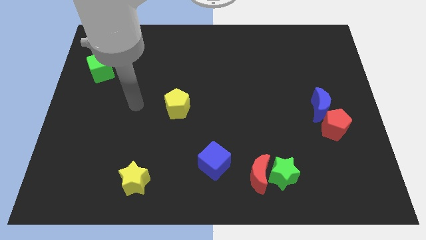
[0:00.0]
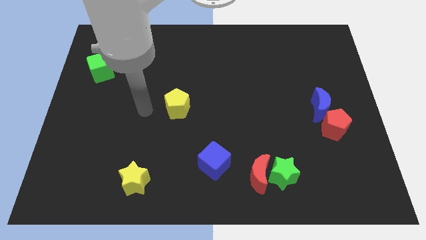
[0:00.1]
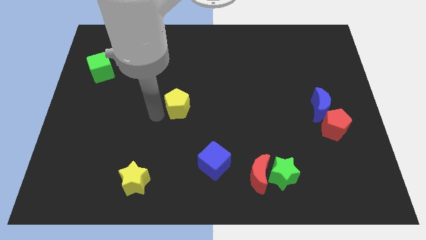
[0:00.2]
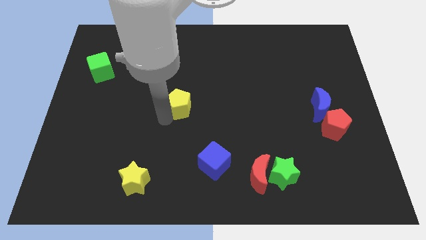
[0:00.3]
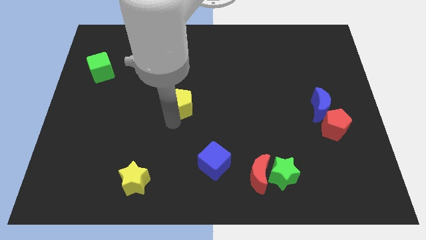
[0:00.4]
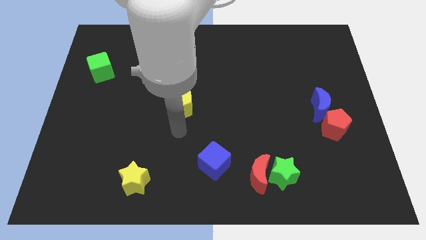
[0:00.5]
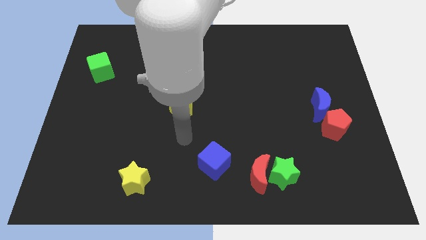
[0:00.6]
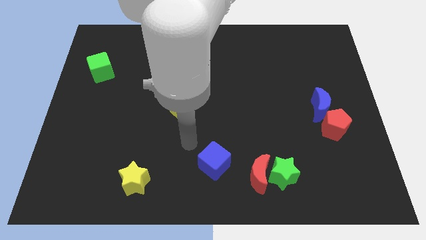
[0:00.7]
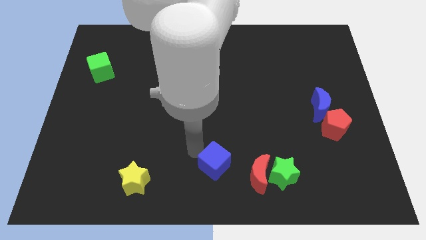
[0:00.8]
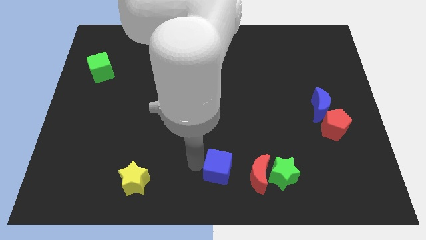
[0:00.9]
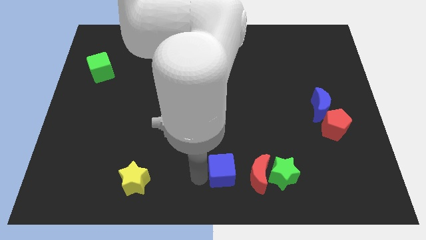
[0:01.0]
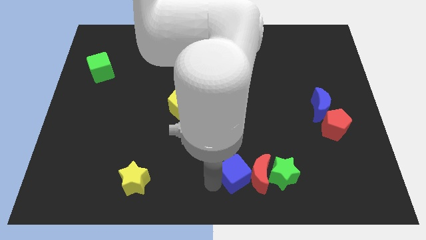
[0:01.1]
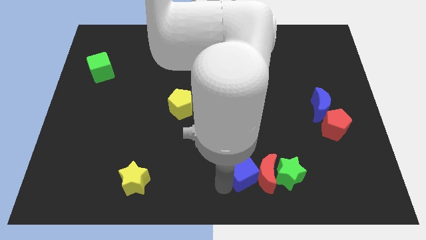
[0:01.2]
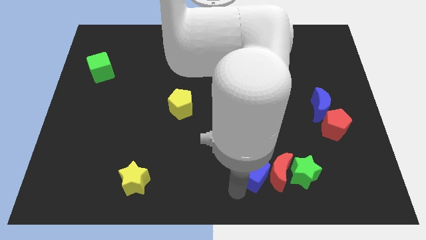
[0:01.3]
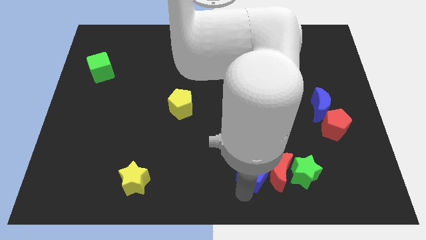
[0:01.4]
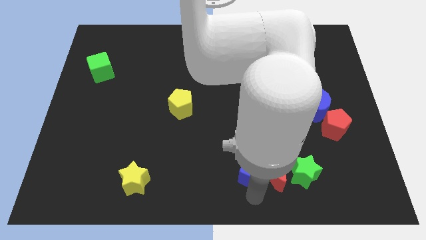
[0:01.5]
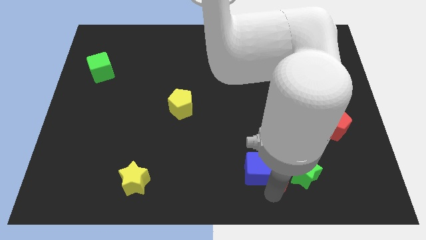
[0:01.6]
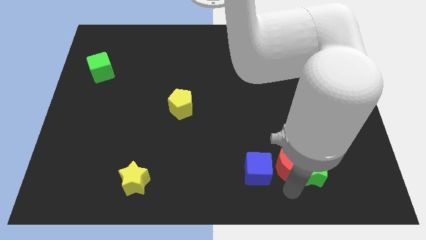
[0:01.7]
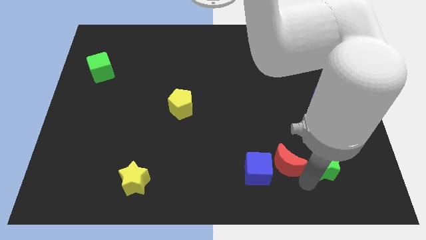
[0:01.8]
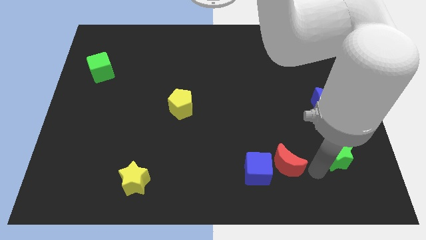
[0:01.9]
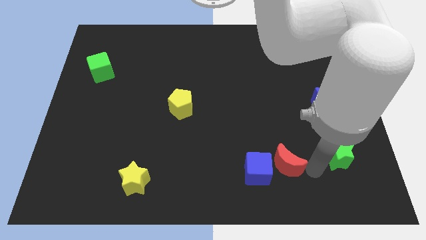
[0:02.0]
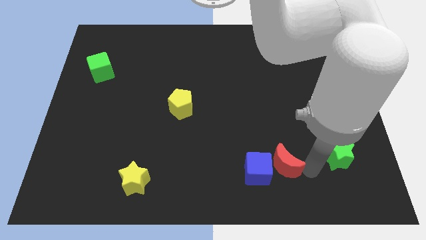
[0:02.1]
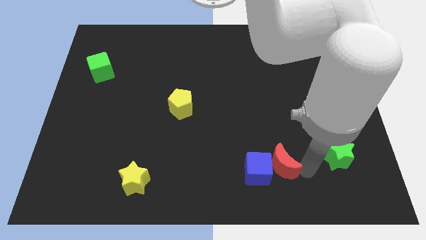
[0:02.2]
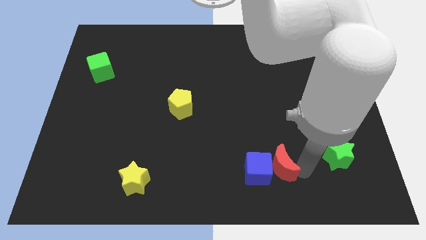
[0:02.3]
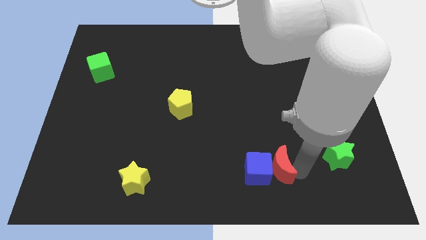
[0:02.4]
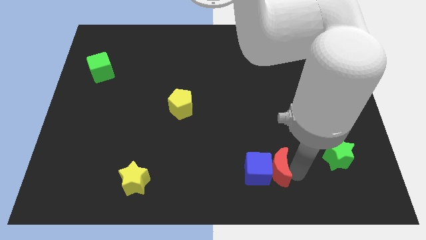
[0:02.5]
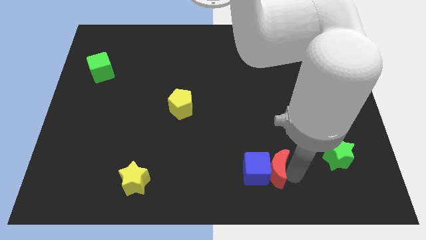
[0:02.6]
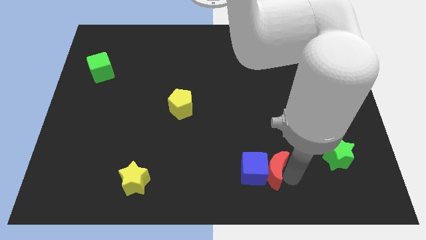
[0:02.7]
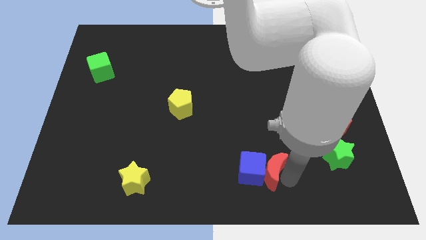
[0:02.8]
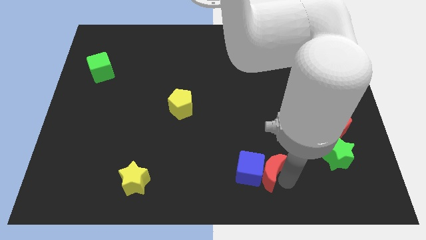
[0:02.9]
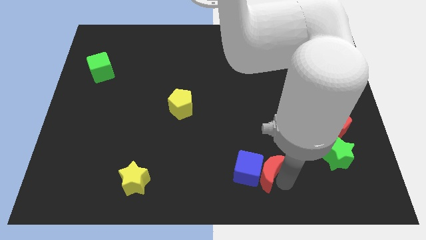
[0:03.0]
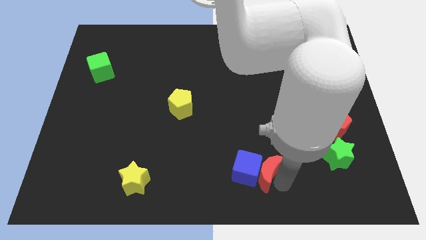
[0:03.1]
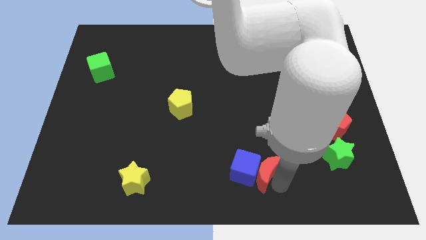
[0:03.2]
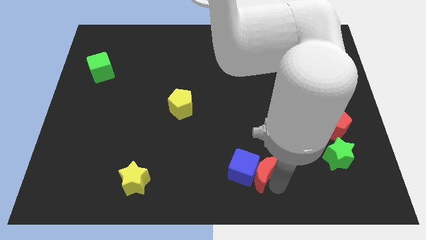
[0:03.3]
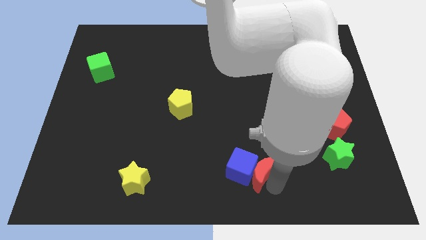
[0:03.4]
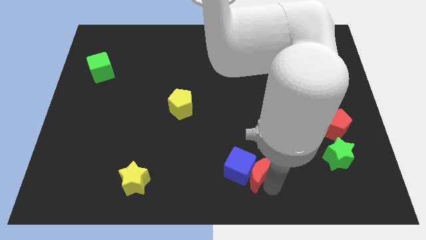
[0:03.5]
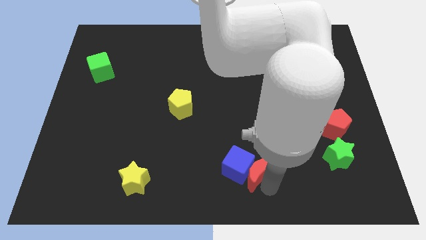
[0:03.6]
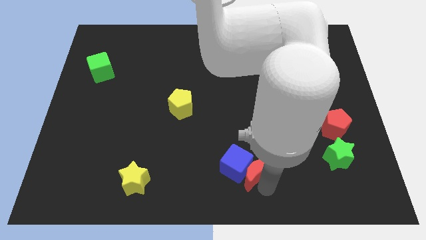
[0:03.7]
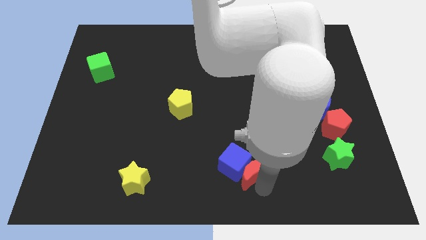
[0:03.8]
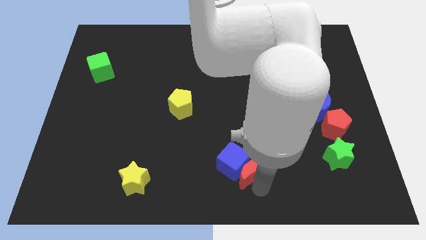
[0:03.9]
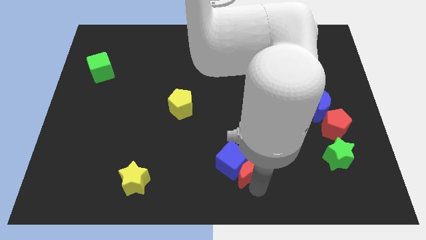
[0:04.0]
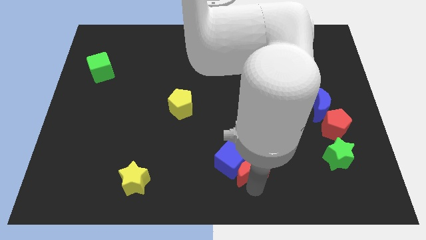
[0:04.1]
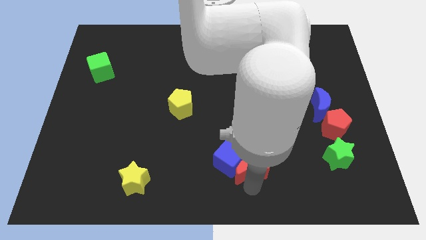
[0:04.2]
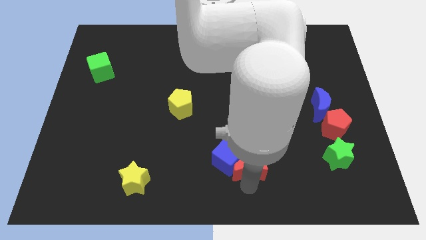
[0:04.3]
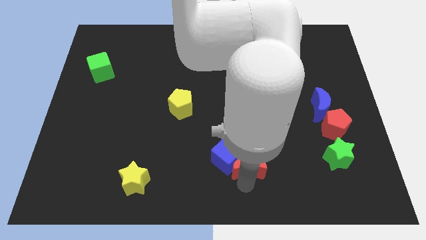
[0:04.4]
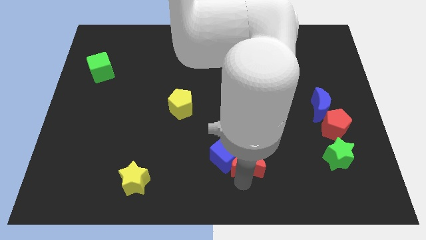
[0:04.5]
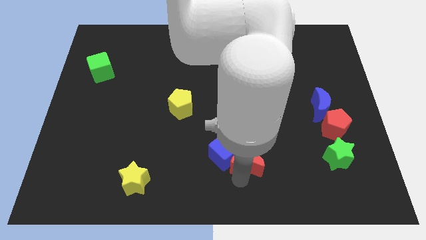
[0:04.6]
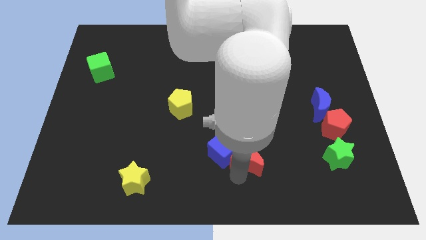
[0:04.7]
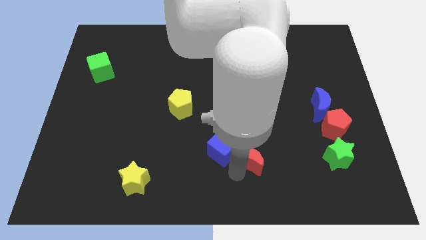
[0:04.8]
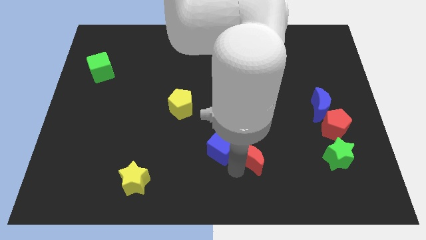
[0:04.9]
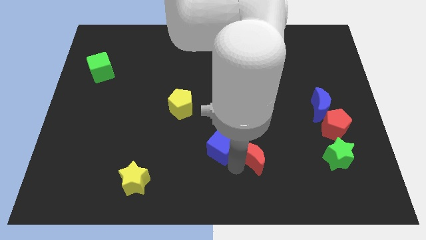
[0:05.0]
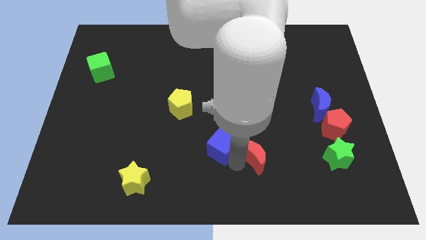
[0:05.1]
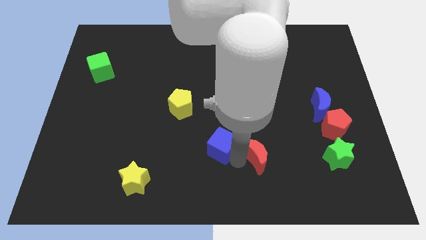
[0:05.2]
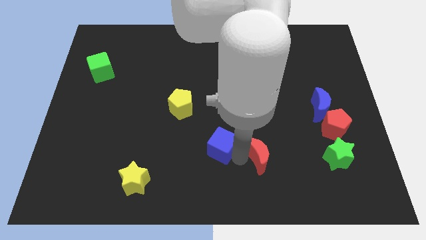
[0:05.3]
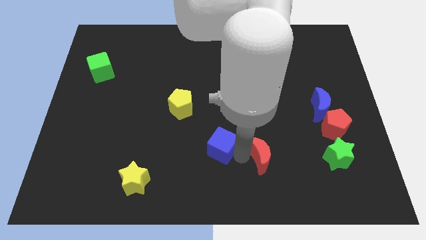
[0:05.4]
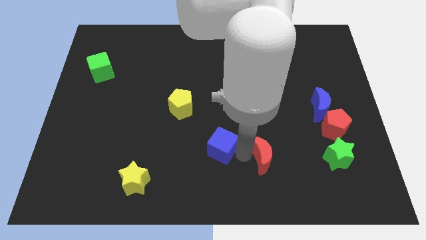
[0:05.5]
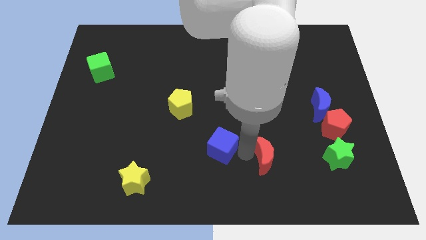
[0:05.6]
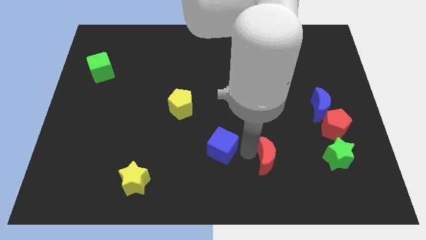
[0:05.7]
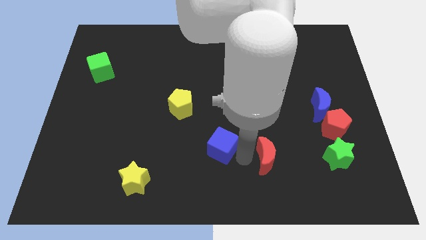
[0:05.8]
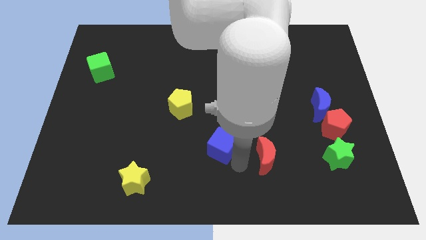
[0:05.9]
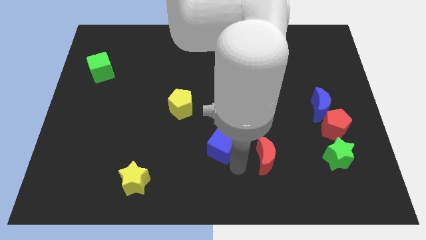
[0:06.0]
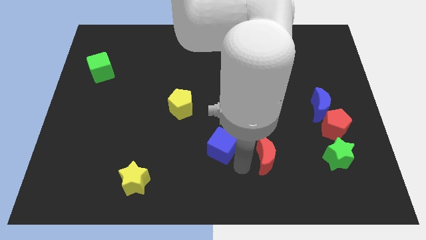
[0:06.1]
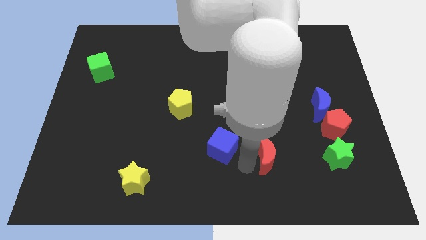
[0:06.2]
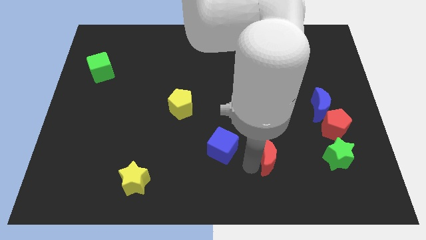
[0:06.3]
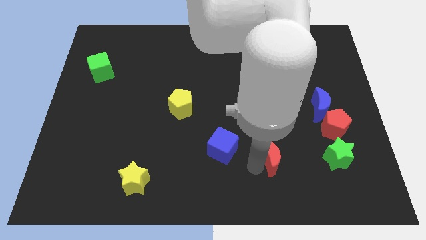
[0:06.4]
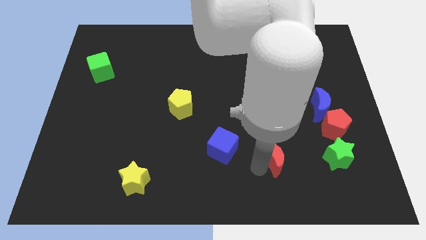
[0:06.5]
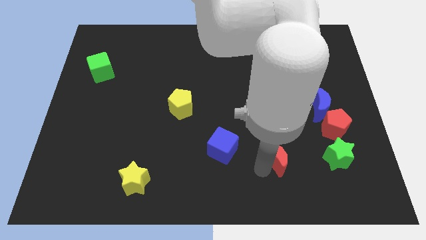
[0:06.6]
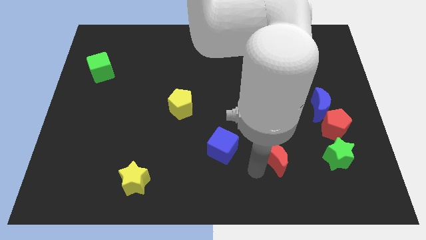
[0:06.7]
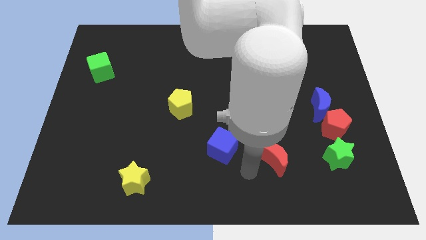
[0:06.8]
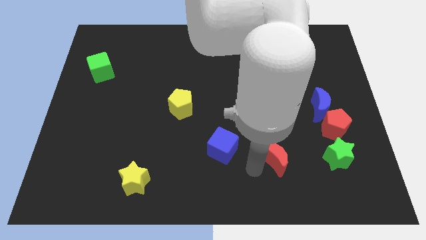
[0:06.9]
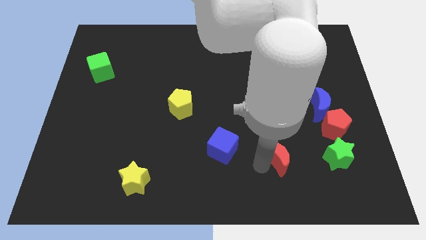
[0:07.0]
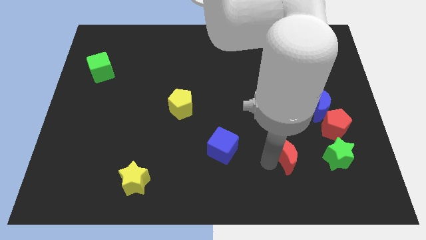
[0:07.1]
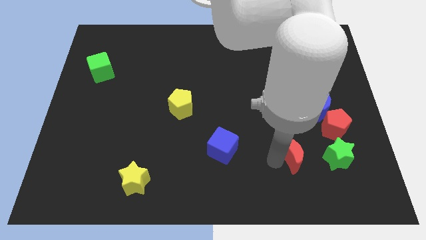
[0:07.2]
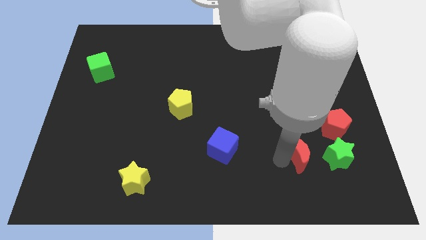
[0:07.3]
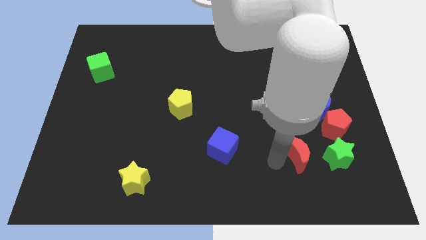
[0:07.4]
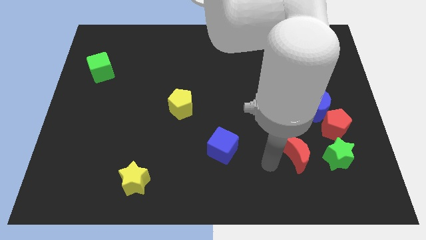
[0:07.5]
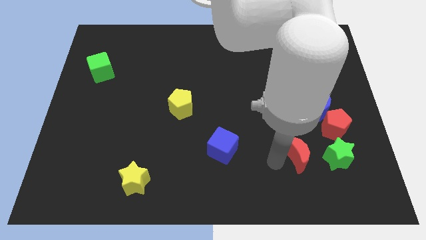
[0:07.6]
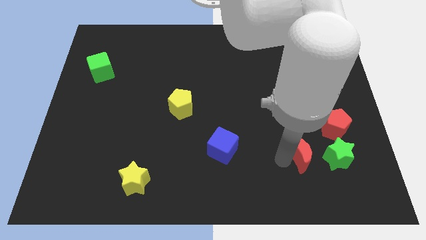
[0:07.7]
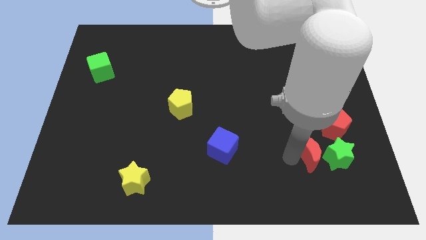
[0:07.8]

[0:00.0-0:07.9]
push the red moon to the bottom side of the blue moon
